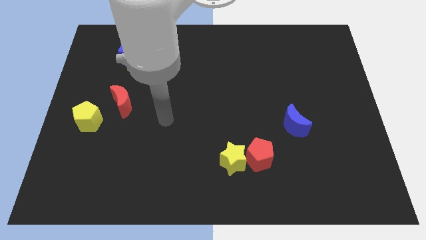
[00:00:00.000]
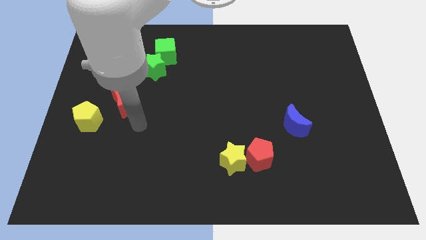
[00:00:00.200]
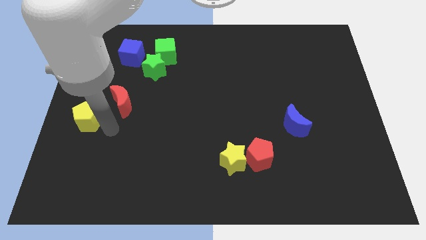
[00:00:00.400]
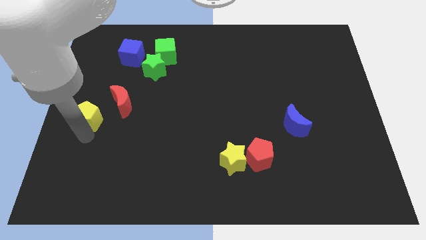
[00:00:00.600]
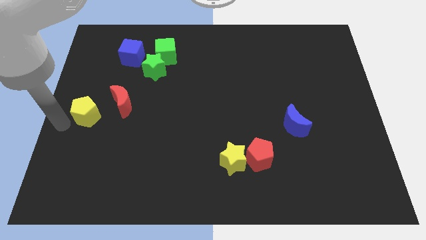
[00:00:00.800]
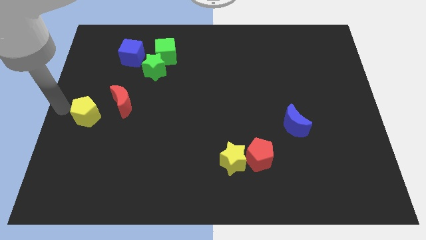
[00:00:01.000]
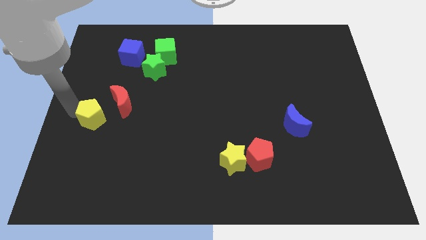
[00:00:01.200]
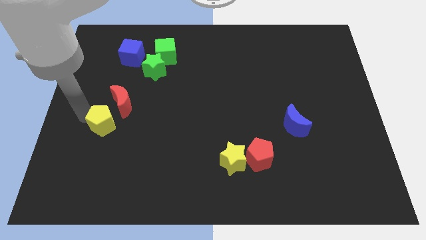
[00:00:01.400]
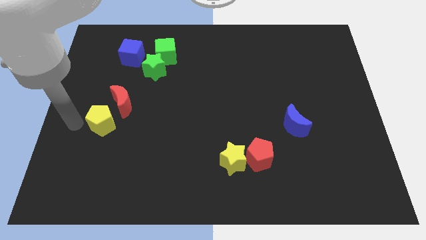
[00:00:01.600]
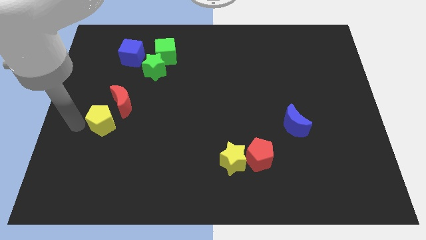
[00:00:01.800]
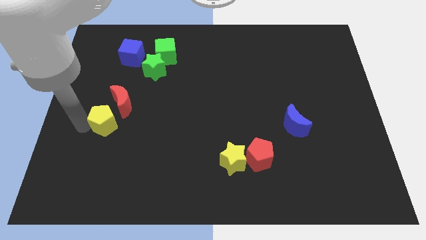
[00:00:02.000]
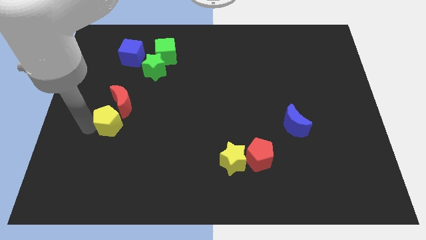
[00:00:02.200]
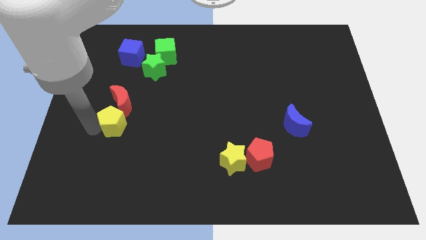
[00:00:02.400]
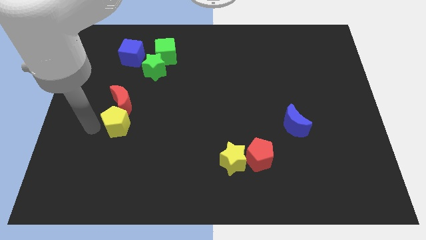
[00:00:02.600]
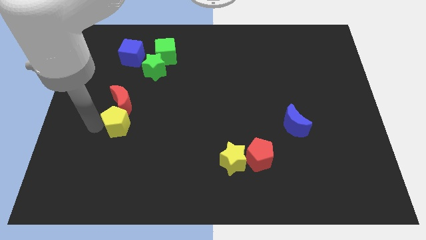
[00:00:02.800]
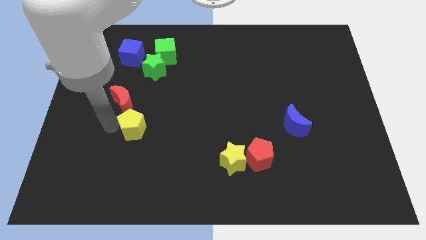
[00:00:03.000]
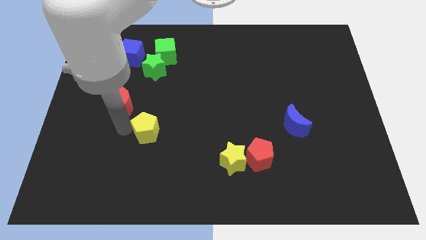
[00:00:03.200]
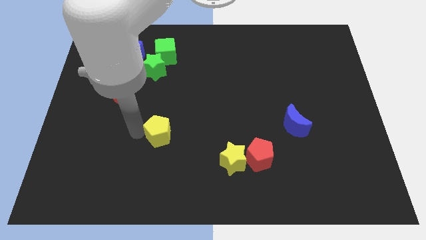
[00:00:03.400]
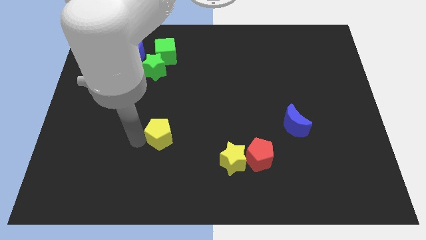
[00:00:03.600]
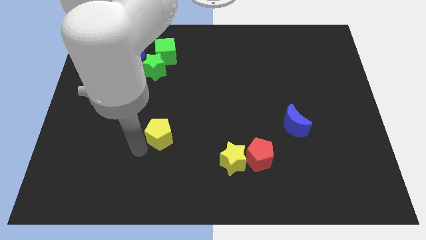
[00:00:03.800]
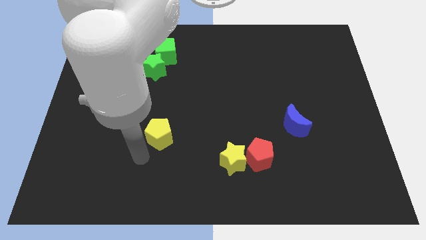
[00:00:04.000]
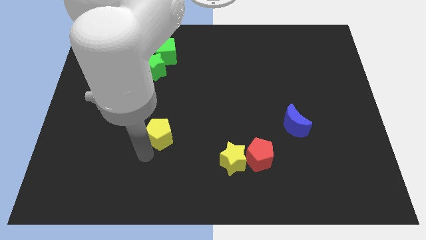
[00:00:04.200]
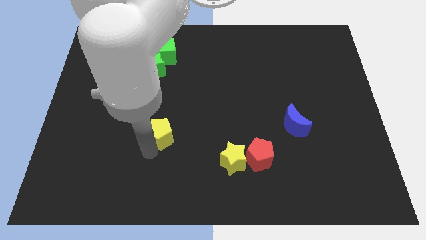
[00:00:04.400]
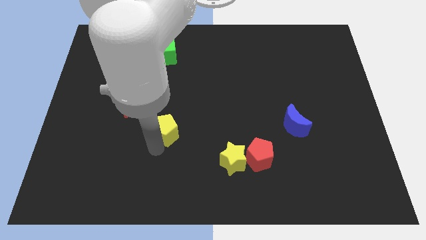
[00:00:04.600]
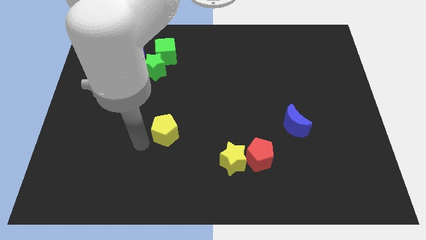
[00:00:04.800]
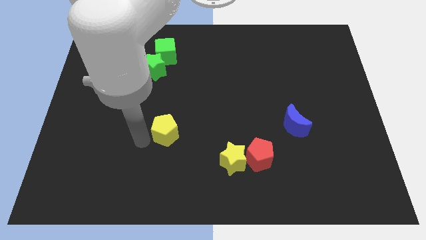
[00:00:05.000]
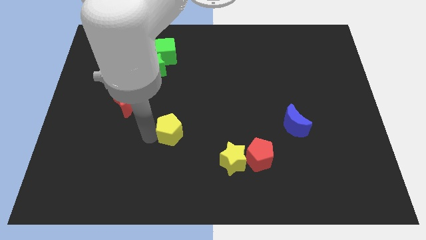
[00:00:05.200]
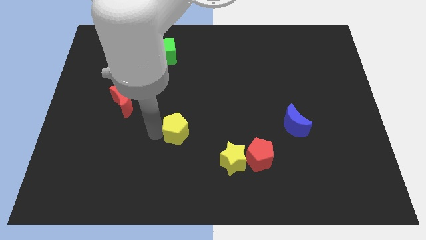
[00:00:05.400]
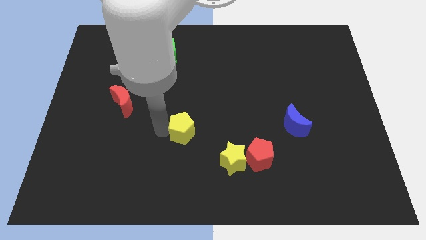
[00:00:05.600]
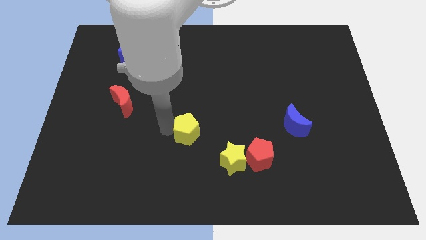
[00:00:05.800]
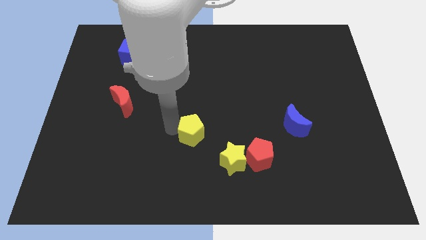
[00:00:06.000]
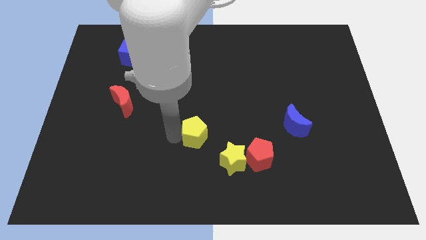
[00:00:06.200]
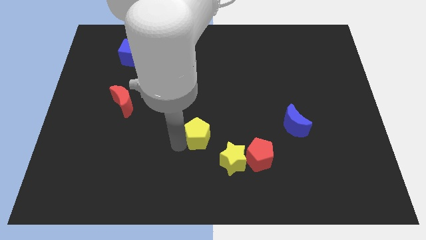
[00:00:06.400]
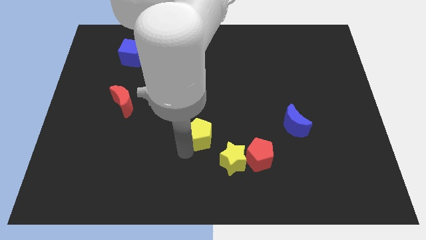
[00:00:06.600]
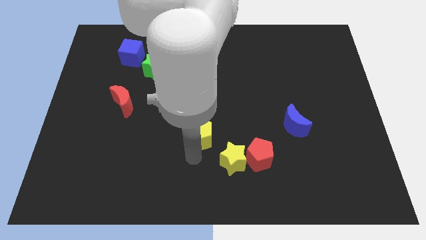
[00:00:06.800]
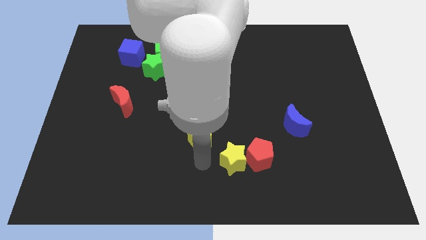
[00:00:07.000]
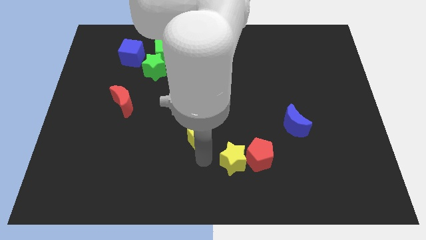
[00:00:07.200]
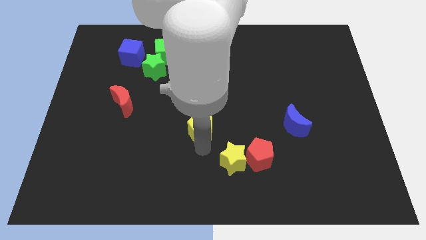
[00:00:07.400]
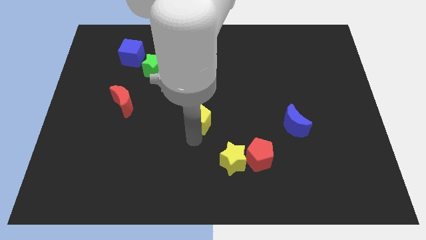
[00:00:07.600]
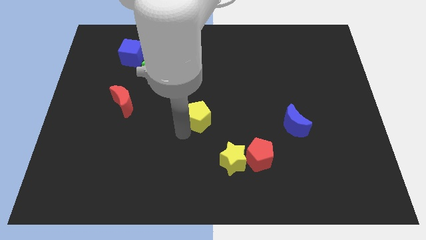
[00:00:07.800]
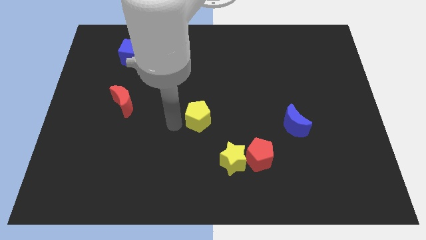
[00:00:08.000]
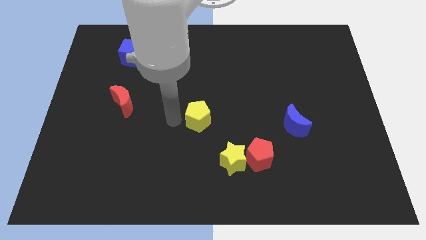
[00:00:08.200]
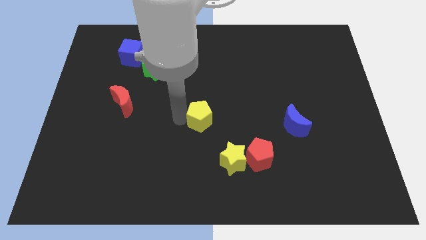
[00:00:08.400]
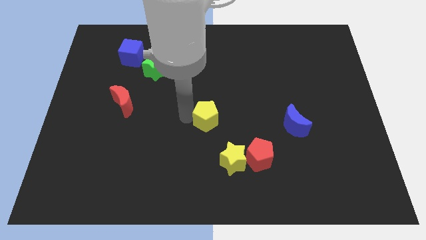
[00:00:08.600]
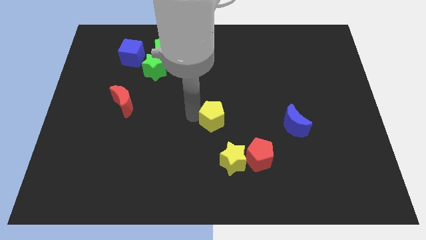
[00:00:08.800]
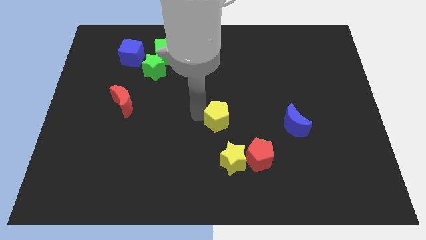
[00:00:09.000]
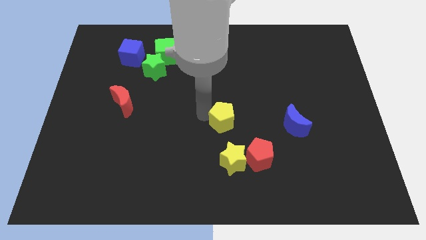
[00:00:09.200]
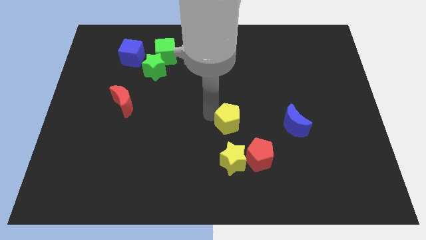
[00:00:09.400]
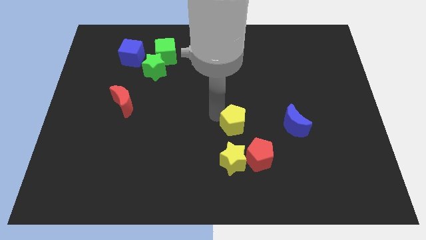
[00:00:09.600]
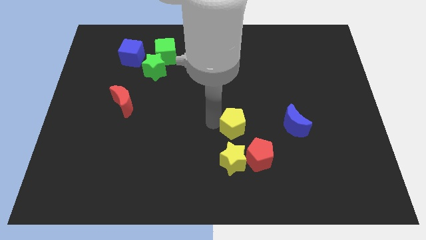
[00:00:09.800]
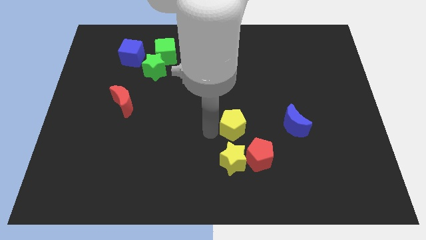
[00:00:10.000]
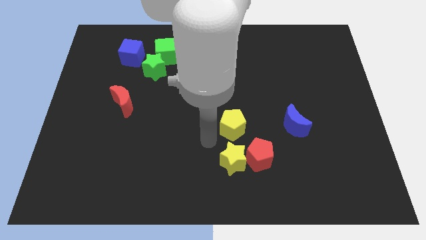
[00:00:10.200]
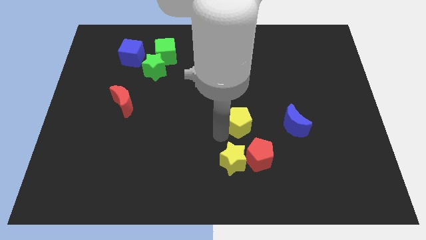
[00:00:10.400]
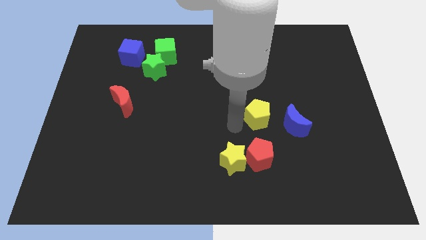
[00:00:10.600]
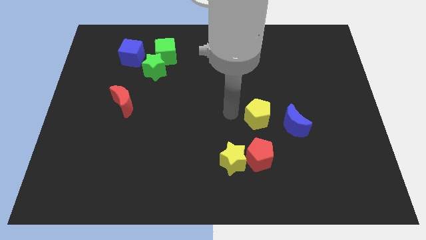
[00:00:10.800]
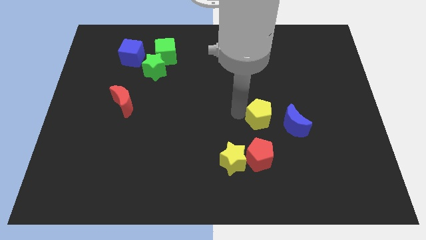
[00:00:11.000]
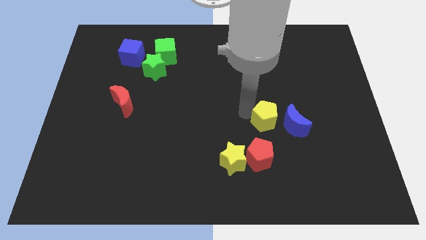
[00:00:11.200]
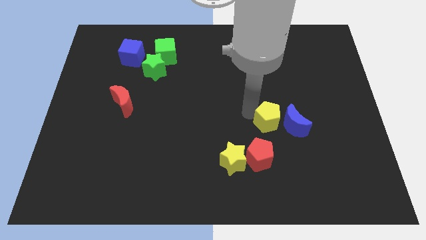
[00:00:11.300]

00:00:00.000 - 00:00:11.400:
slide the yellow pentagon close to the blue moon
